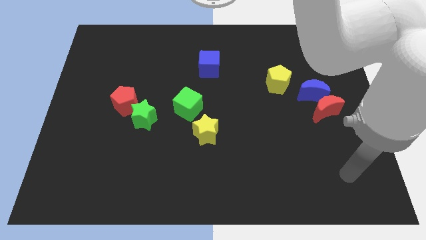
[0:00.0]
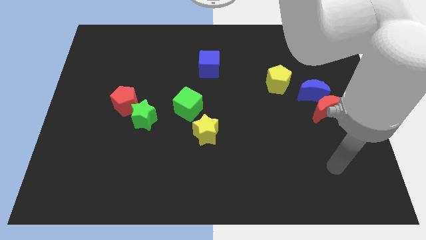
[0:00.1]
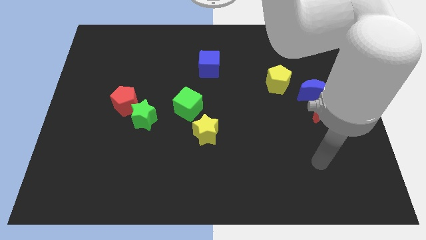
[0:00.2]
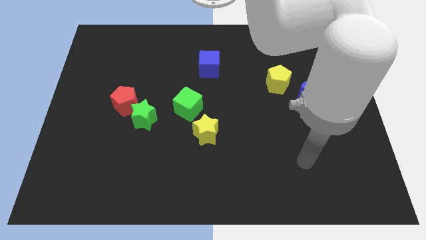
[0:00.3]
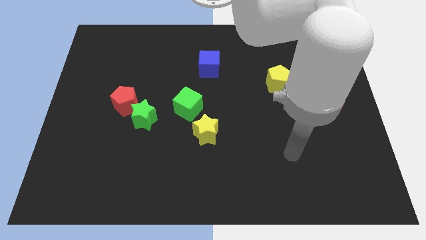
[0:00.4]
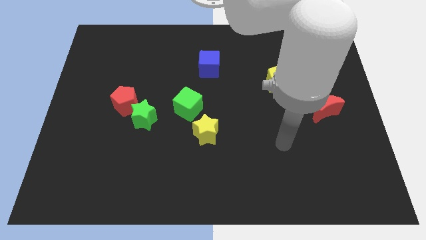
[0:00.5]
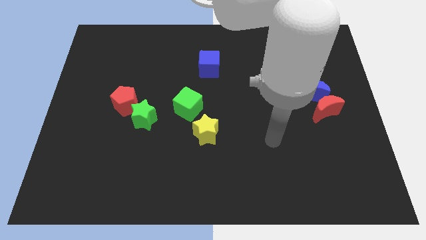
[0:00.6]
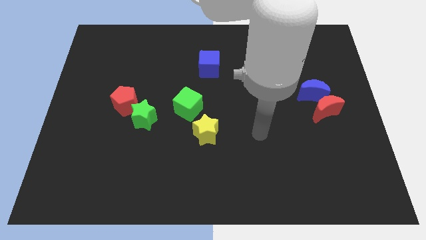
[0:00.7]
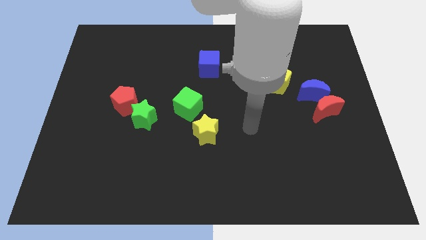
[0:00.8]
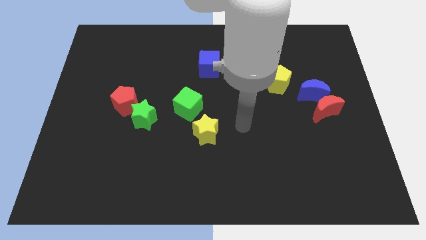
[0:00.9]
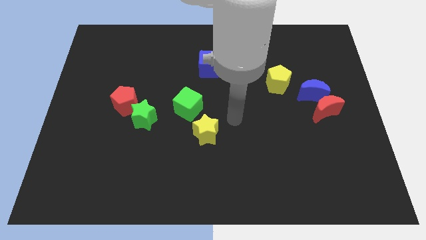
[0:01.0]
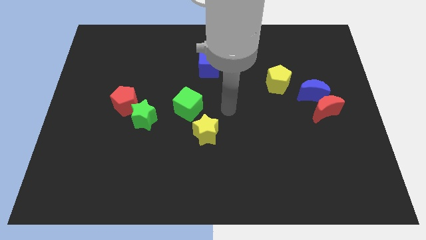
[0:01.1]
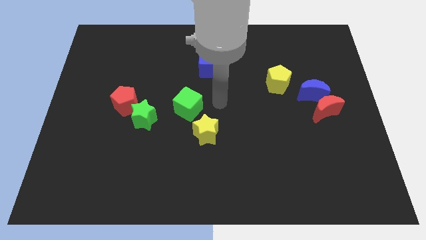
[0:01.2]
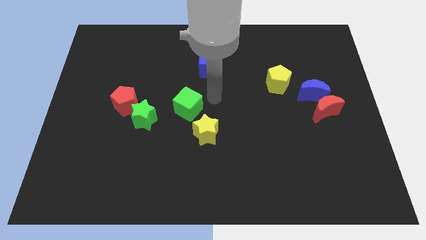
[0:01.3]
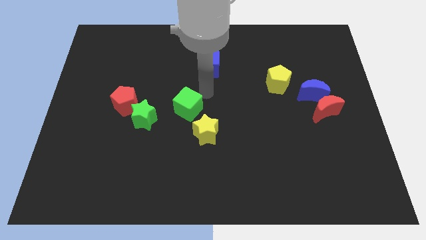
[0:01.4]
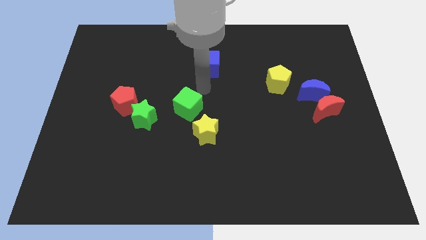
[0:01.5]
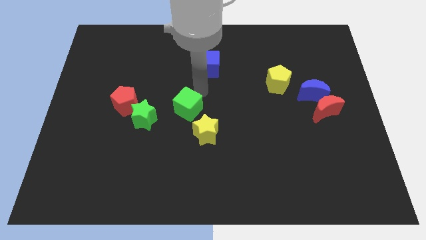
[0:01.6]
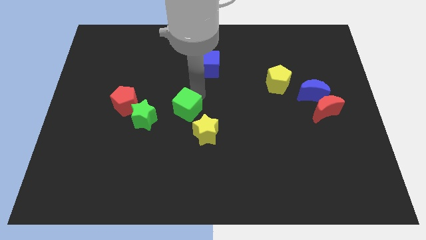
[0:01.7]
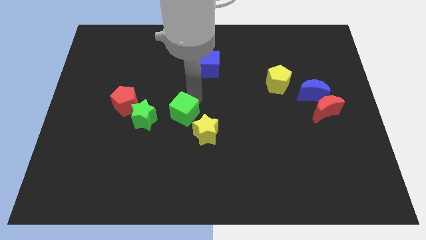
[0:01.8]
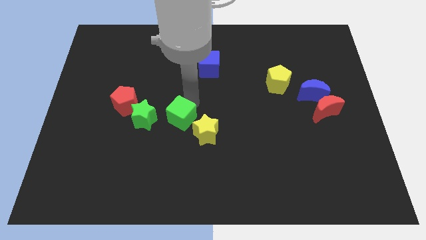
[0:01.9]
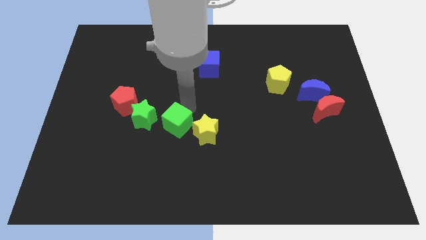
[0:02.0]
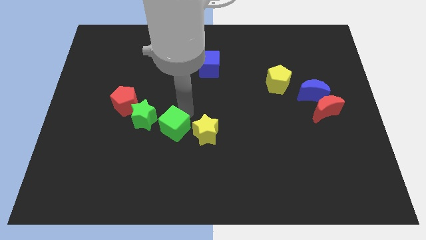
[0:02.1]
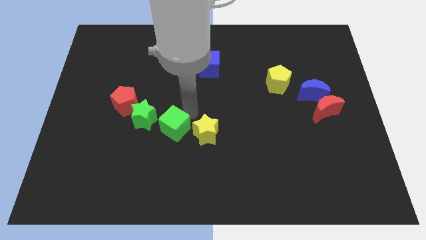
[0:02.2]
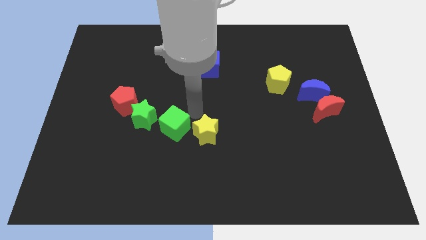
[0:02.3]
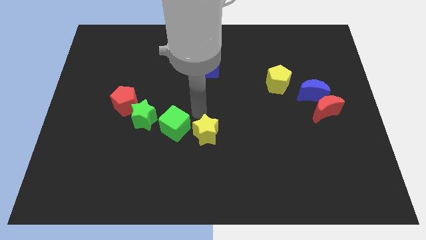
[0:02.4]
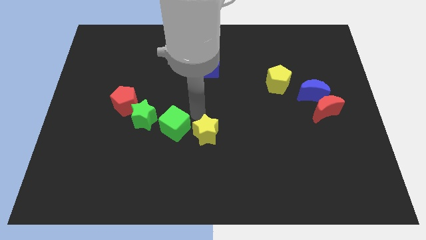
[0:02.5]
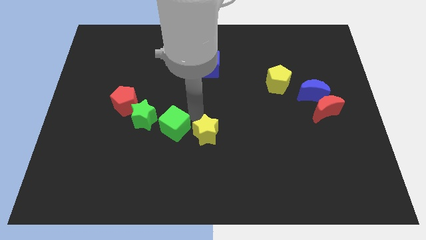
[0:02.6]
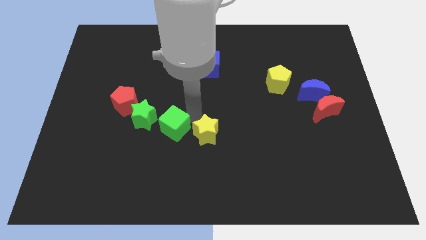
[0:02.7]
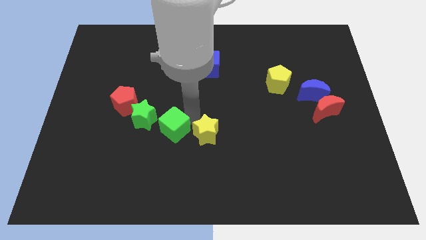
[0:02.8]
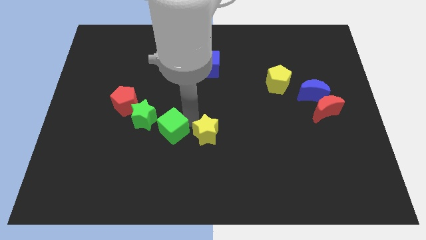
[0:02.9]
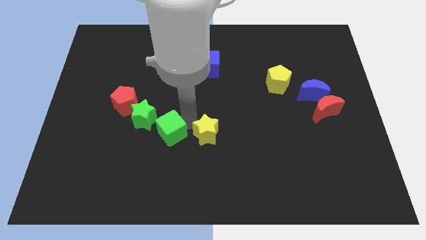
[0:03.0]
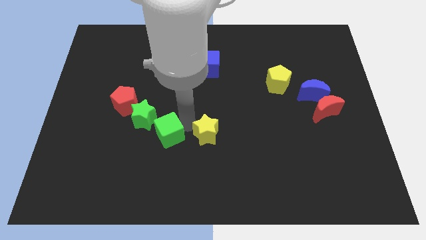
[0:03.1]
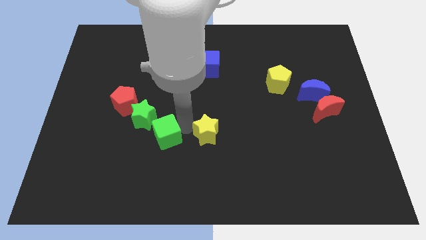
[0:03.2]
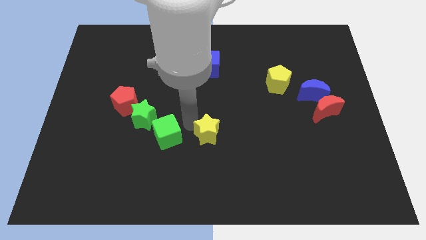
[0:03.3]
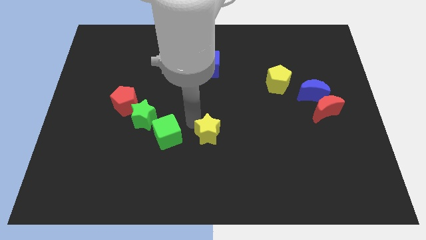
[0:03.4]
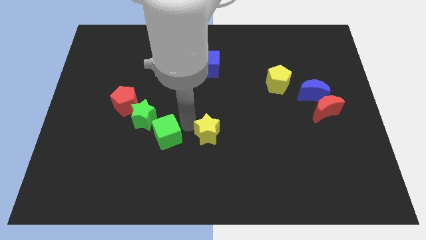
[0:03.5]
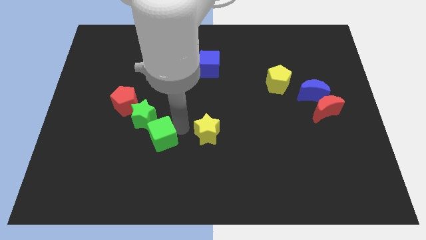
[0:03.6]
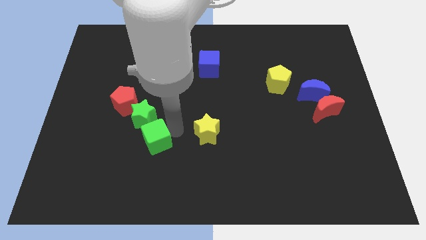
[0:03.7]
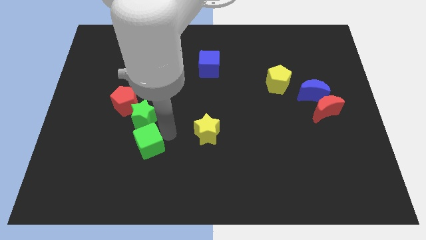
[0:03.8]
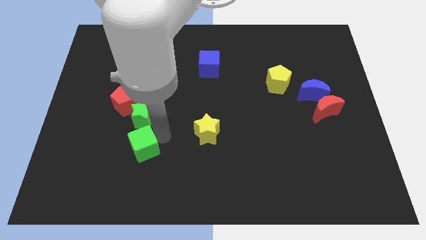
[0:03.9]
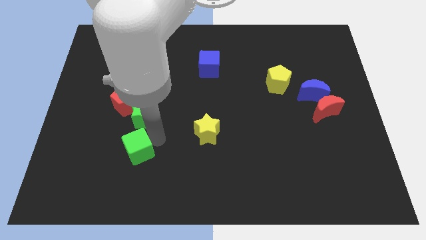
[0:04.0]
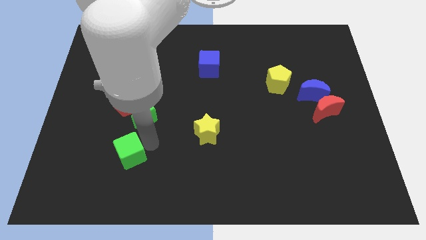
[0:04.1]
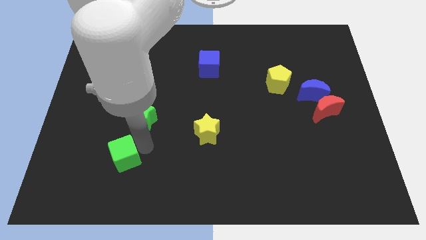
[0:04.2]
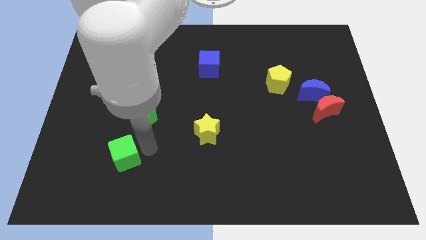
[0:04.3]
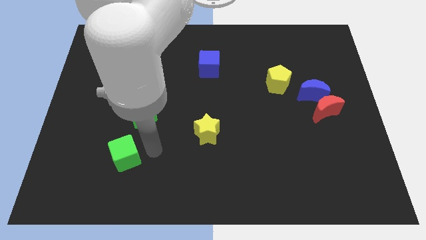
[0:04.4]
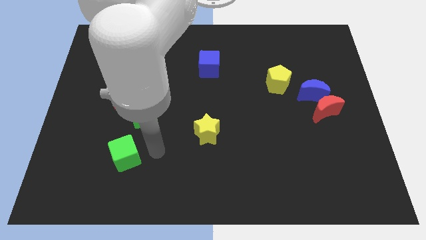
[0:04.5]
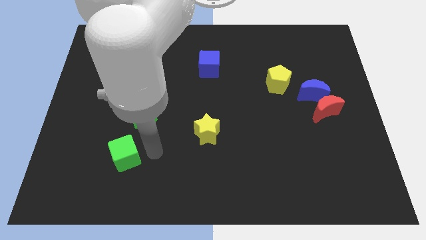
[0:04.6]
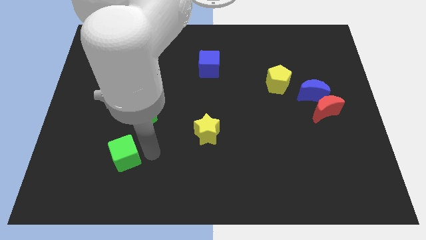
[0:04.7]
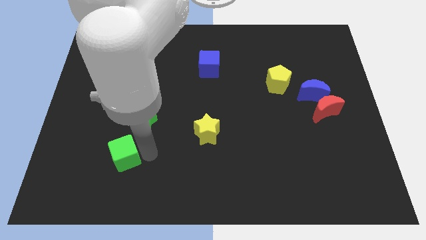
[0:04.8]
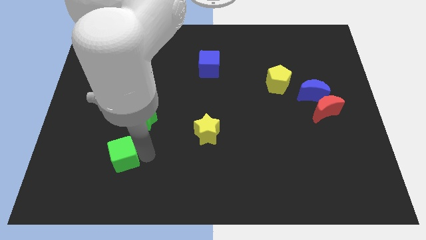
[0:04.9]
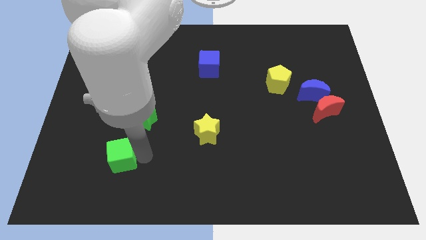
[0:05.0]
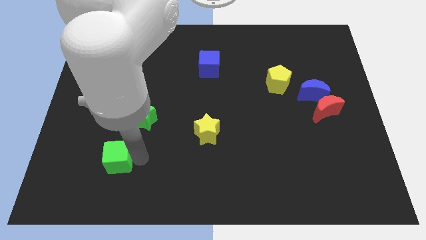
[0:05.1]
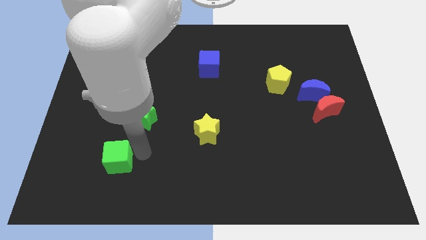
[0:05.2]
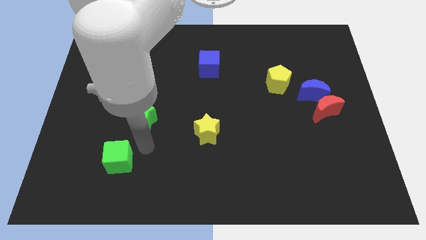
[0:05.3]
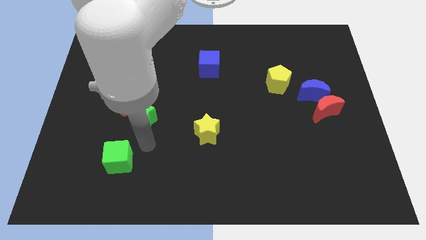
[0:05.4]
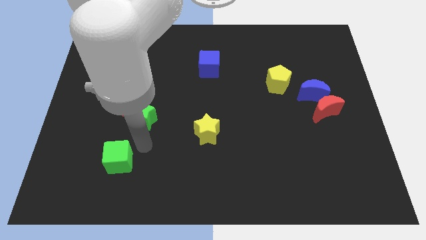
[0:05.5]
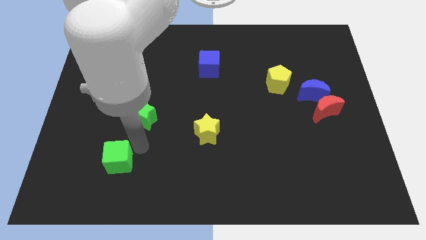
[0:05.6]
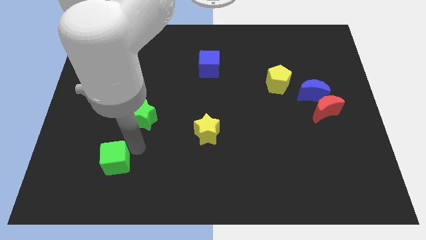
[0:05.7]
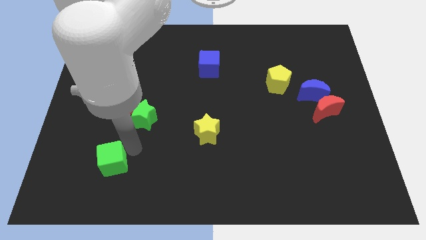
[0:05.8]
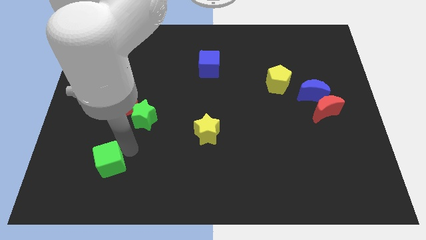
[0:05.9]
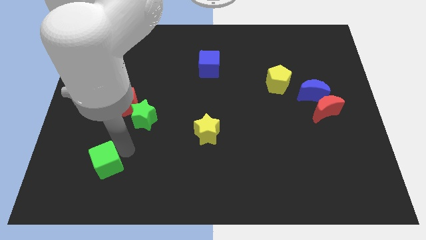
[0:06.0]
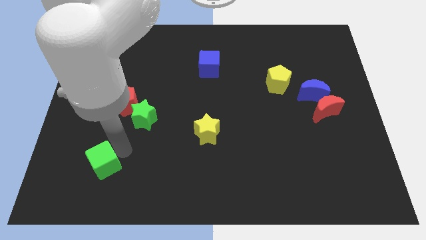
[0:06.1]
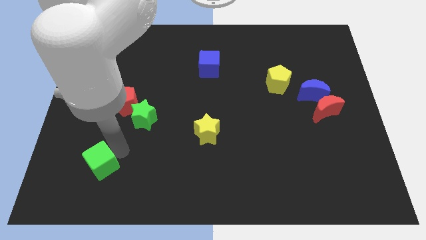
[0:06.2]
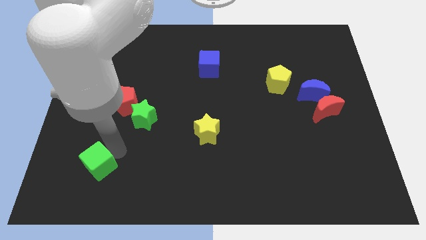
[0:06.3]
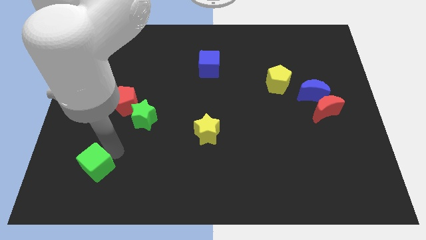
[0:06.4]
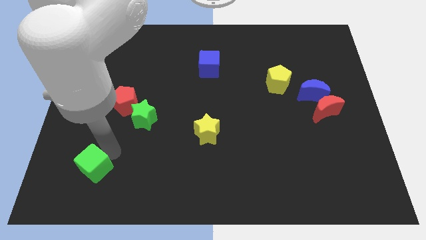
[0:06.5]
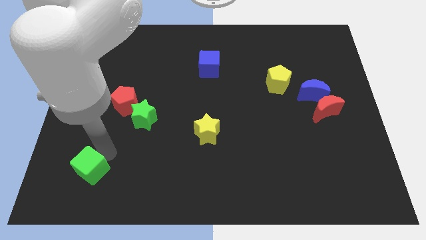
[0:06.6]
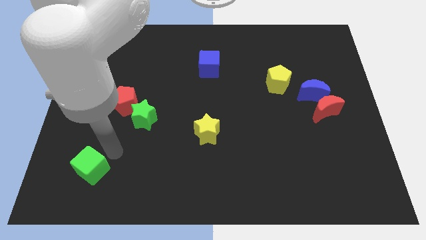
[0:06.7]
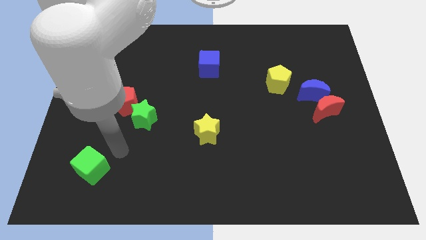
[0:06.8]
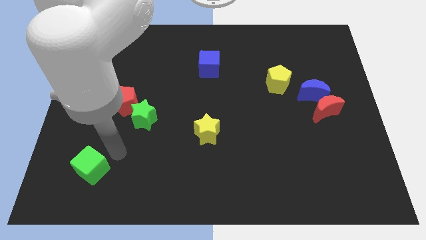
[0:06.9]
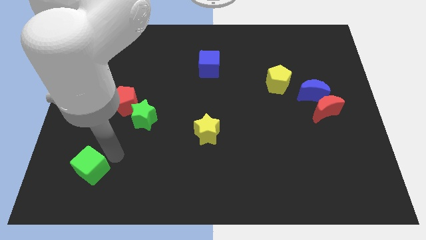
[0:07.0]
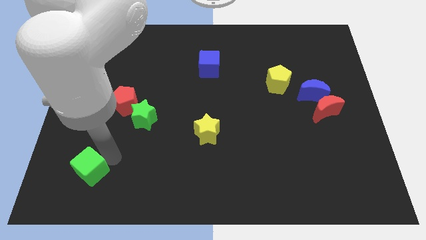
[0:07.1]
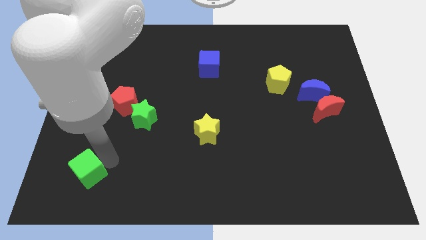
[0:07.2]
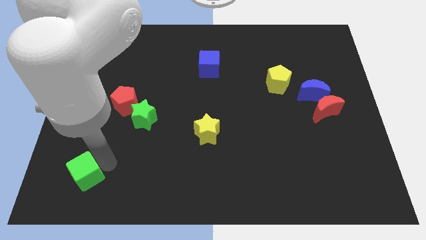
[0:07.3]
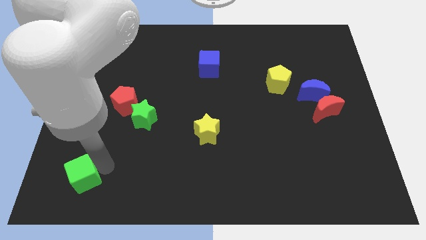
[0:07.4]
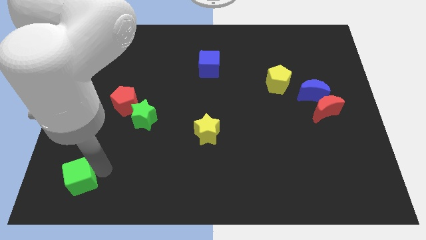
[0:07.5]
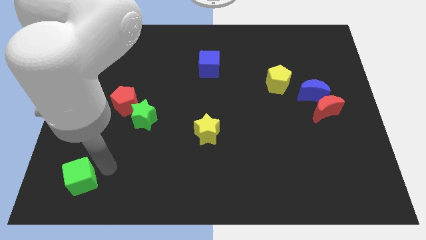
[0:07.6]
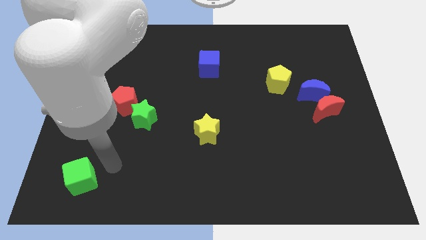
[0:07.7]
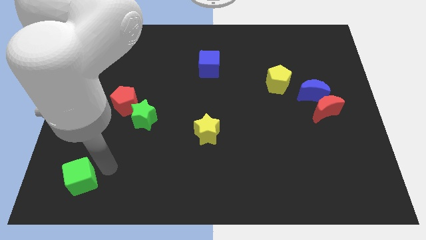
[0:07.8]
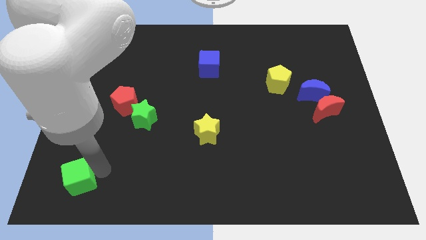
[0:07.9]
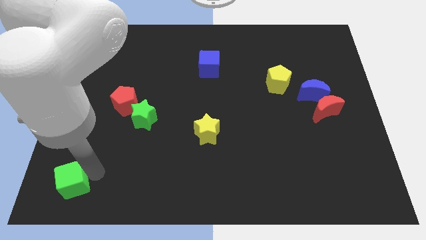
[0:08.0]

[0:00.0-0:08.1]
slide the green cube to the bottom left
